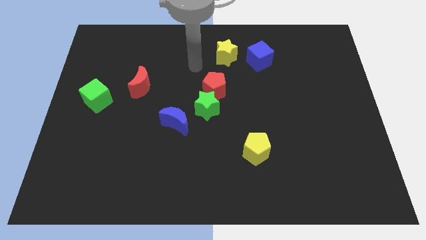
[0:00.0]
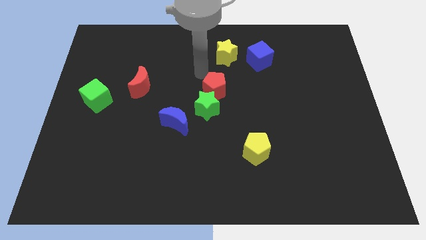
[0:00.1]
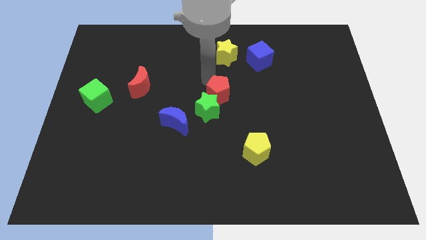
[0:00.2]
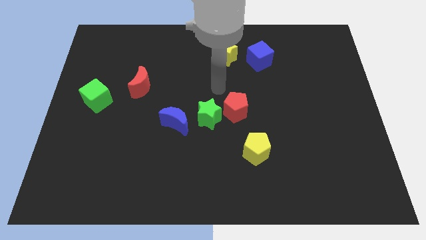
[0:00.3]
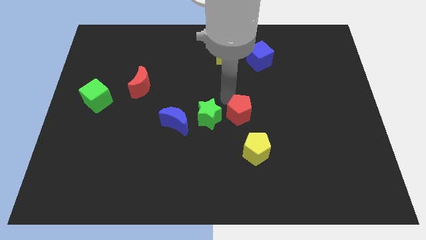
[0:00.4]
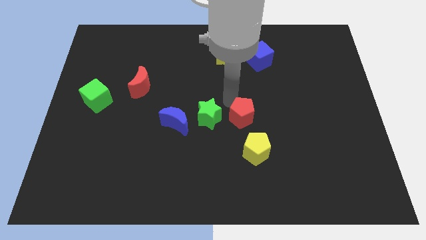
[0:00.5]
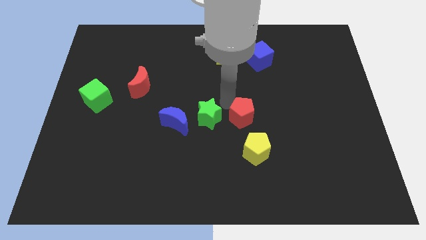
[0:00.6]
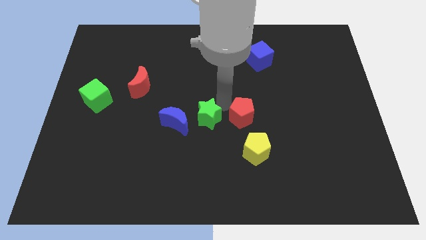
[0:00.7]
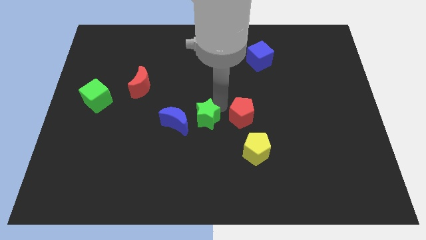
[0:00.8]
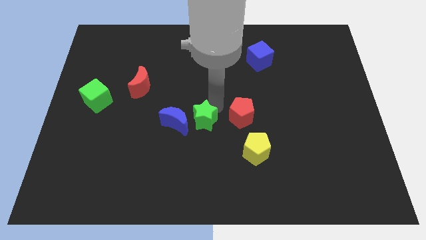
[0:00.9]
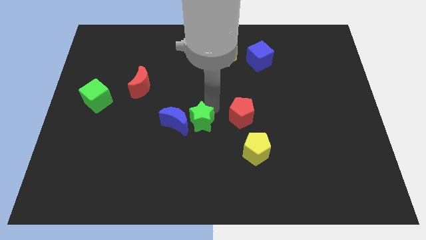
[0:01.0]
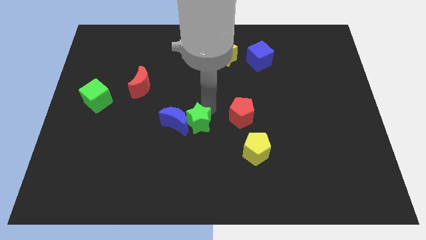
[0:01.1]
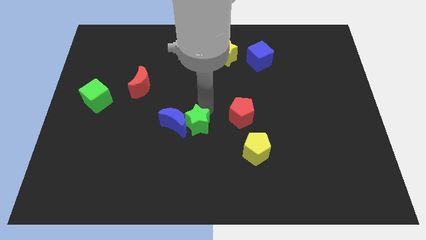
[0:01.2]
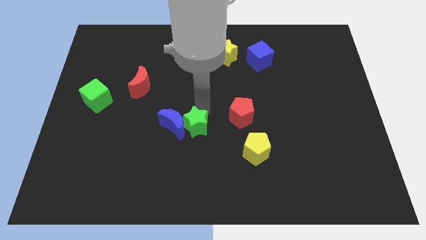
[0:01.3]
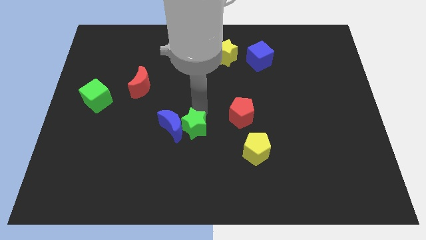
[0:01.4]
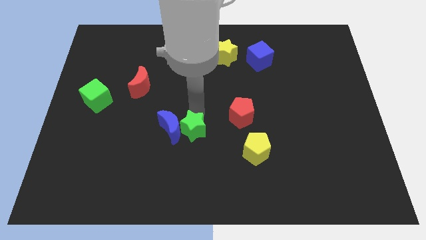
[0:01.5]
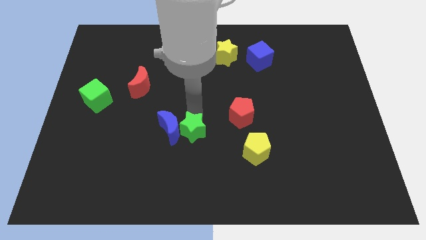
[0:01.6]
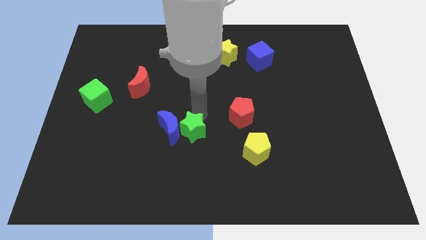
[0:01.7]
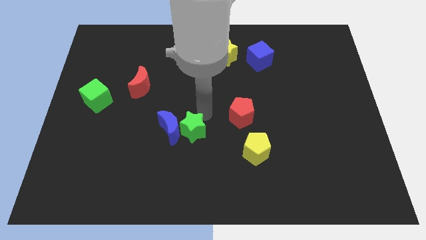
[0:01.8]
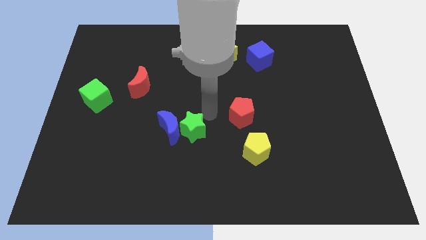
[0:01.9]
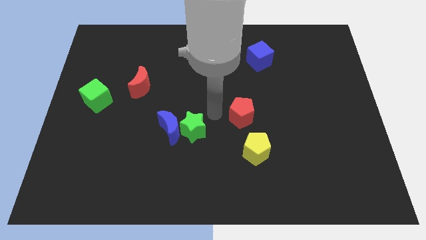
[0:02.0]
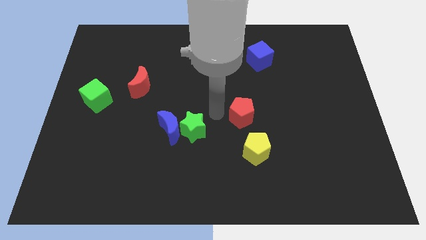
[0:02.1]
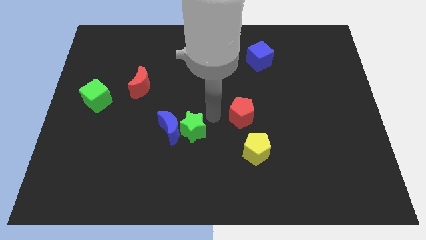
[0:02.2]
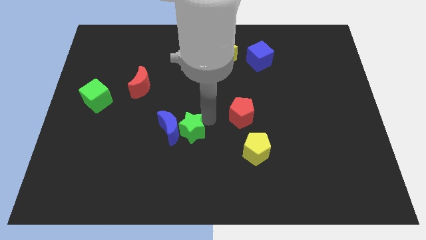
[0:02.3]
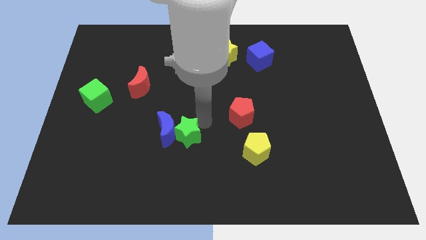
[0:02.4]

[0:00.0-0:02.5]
push the green star down and then left slightly

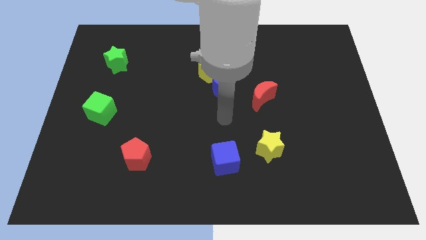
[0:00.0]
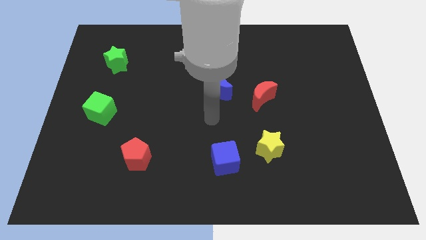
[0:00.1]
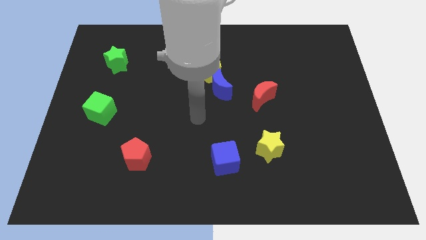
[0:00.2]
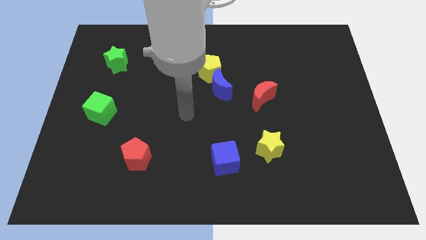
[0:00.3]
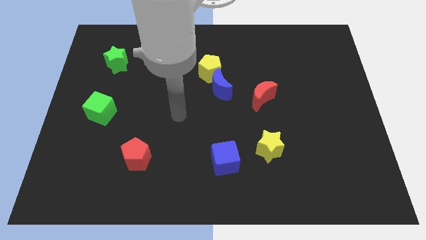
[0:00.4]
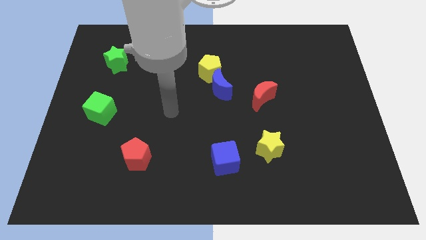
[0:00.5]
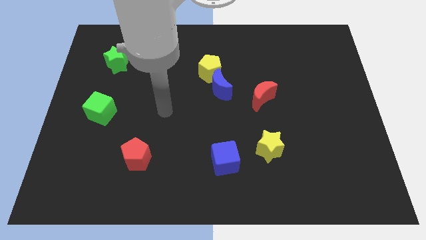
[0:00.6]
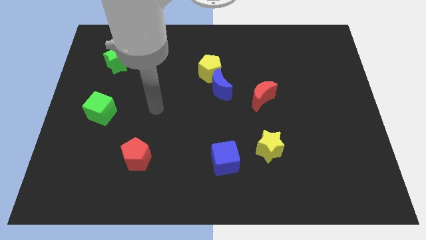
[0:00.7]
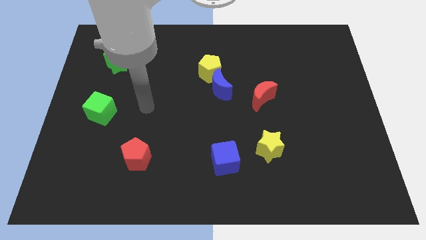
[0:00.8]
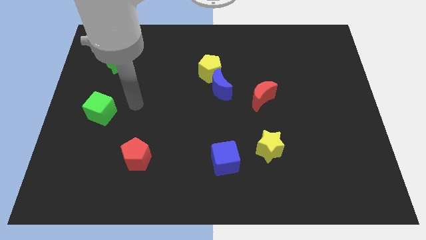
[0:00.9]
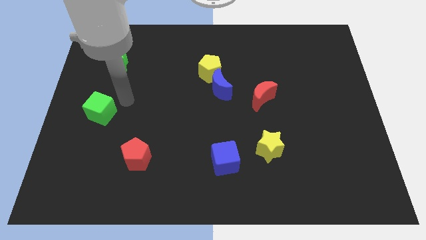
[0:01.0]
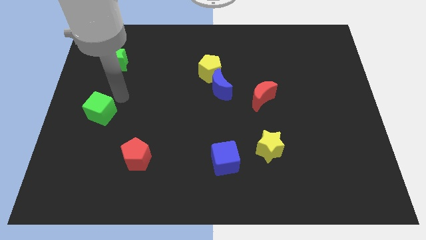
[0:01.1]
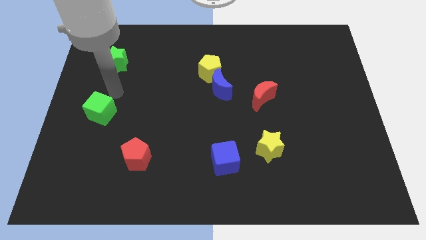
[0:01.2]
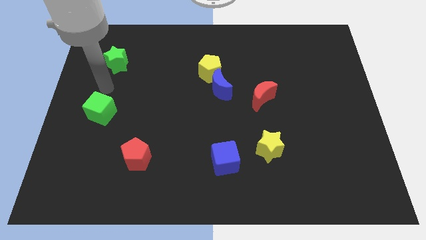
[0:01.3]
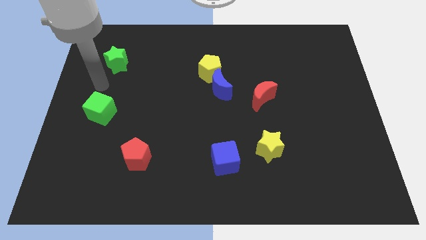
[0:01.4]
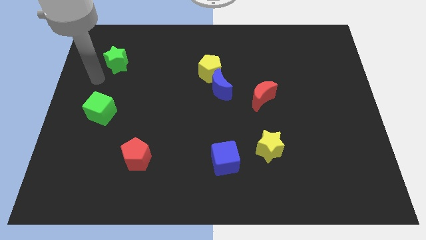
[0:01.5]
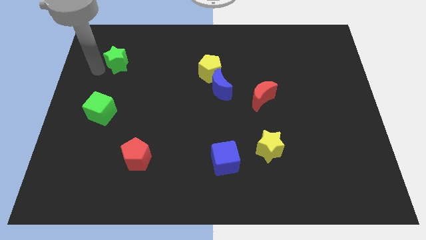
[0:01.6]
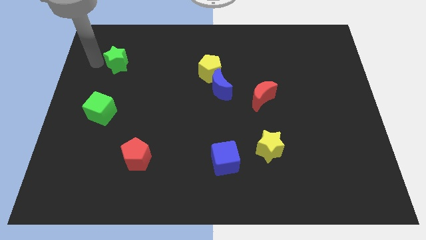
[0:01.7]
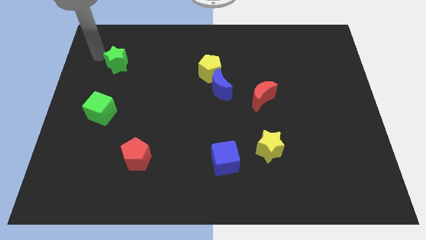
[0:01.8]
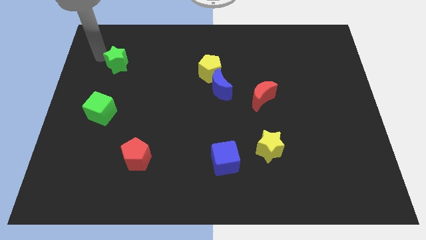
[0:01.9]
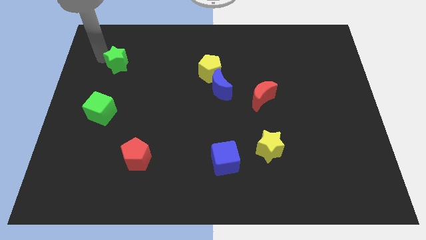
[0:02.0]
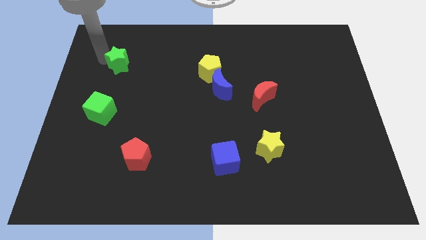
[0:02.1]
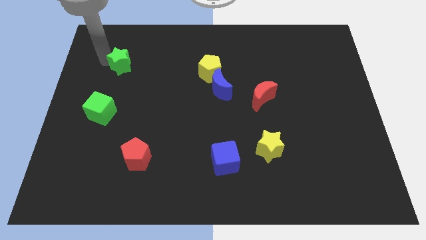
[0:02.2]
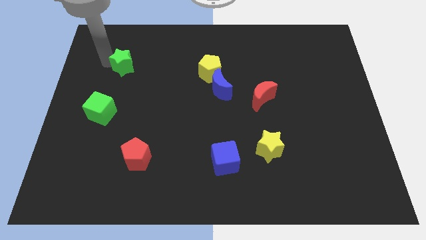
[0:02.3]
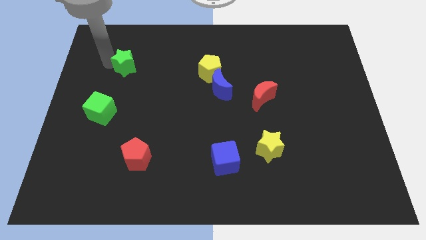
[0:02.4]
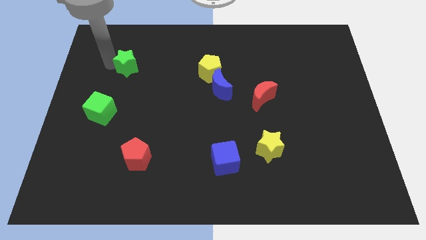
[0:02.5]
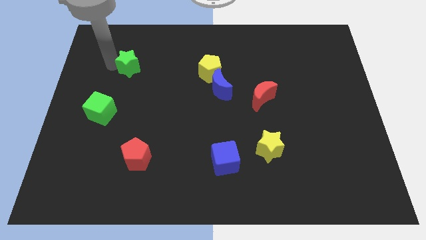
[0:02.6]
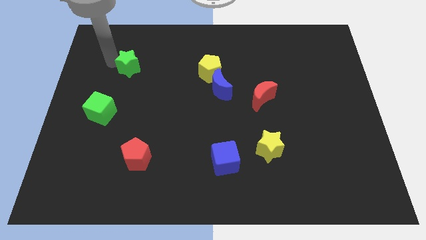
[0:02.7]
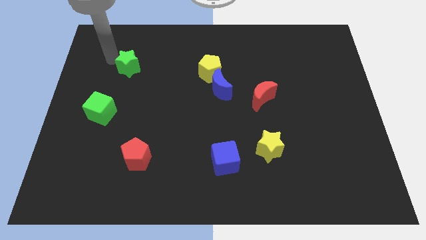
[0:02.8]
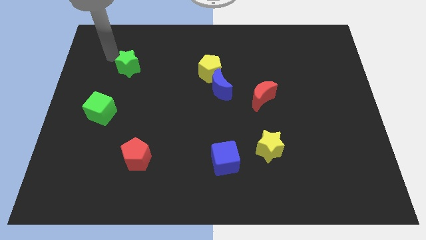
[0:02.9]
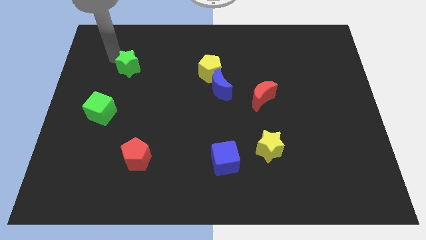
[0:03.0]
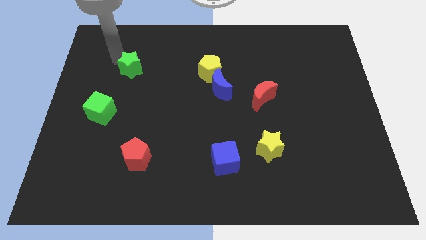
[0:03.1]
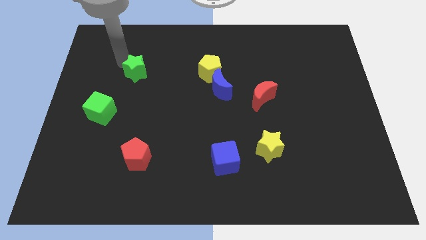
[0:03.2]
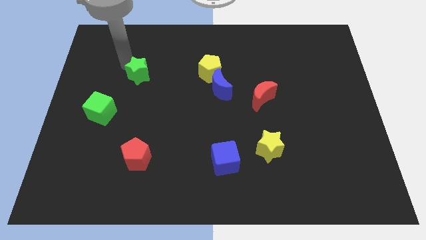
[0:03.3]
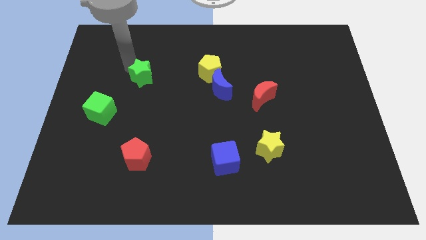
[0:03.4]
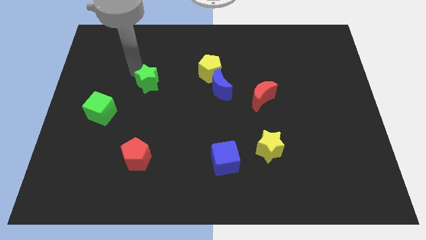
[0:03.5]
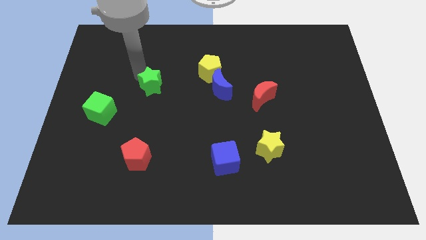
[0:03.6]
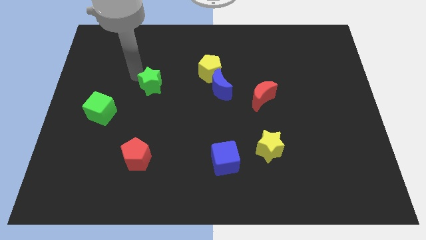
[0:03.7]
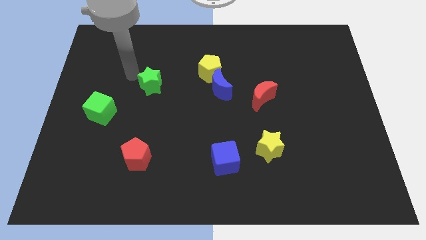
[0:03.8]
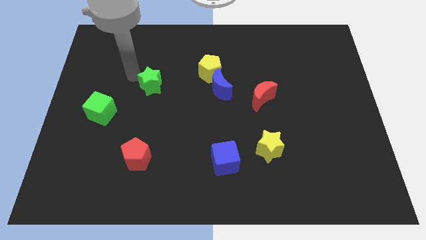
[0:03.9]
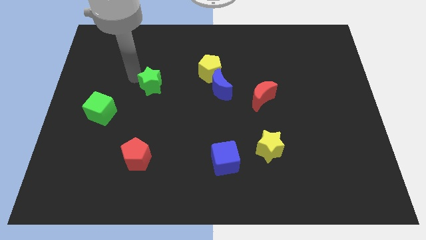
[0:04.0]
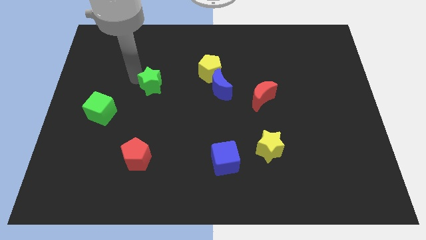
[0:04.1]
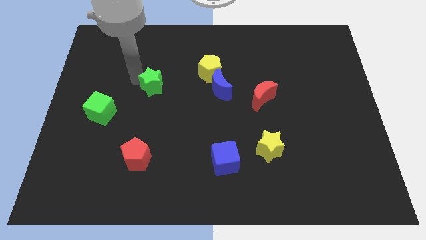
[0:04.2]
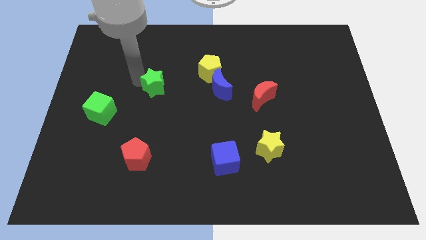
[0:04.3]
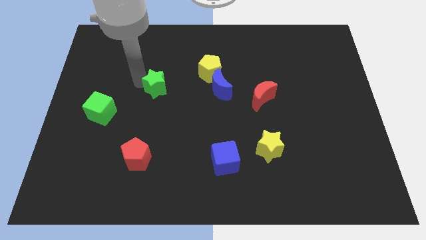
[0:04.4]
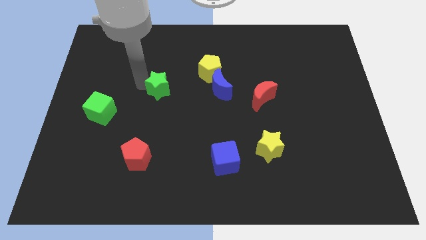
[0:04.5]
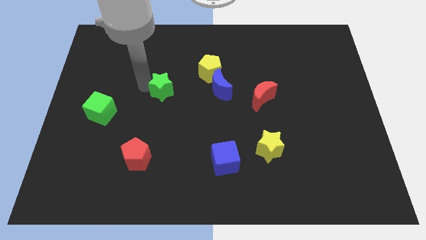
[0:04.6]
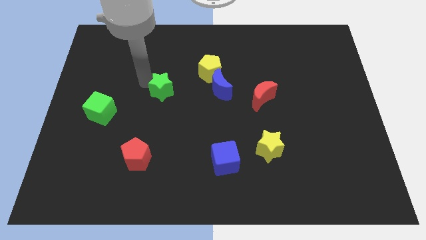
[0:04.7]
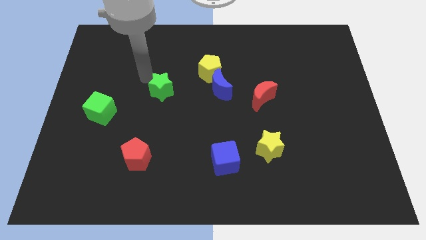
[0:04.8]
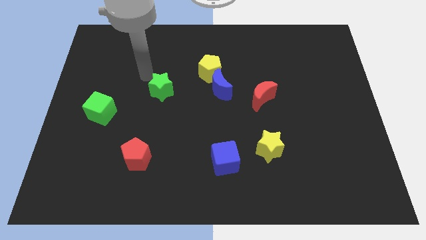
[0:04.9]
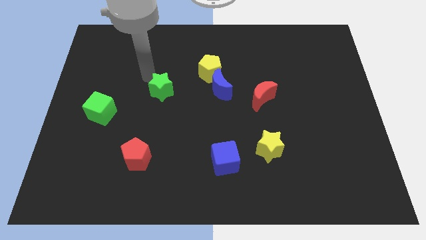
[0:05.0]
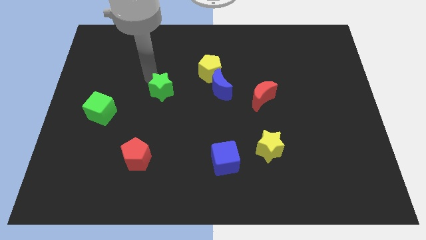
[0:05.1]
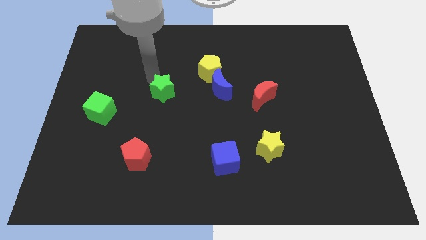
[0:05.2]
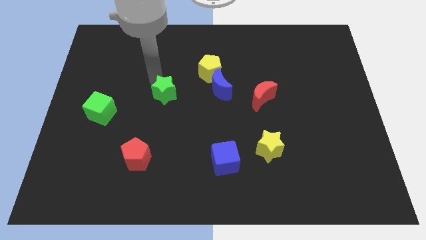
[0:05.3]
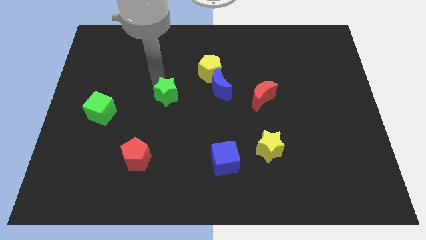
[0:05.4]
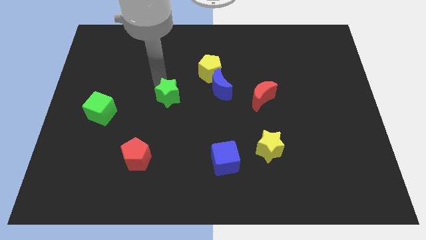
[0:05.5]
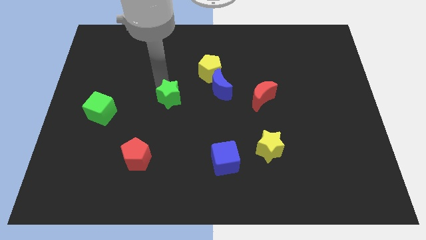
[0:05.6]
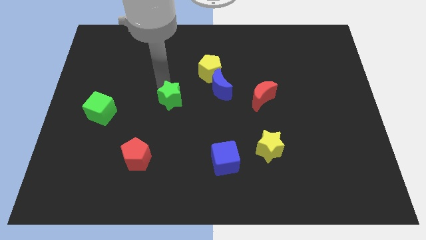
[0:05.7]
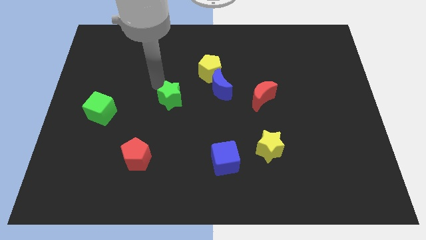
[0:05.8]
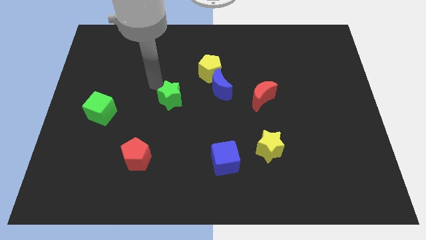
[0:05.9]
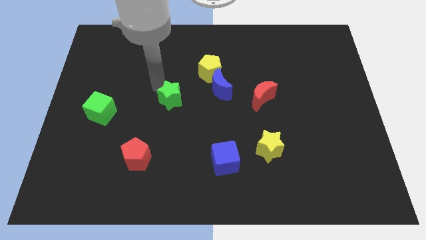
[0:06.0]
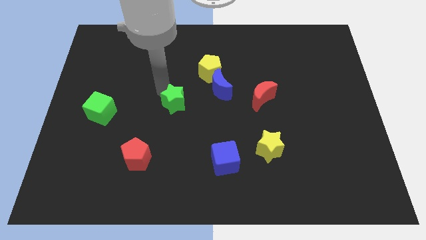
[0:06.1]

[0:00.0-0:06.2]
slide the green star down and then to the right
